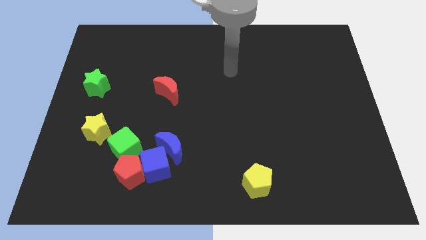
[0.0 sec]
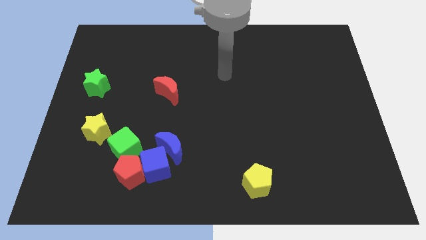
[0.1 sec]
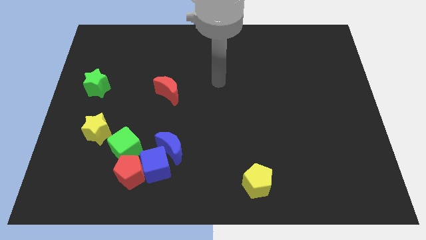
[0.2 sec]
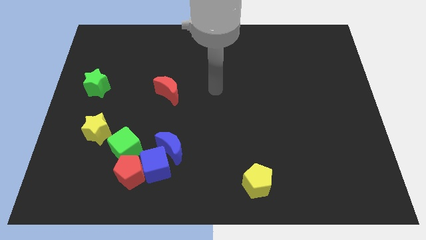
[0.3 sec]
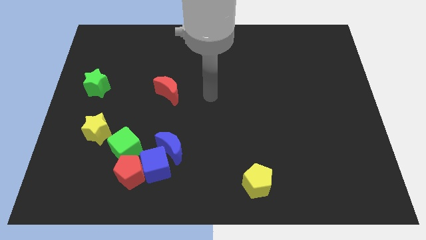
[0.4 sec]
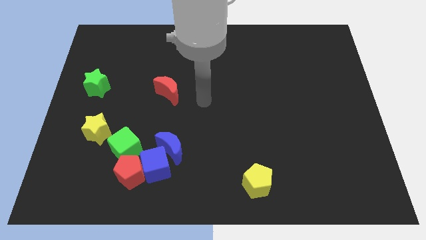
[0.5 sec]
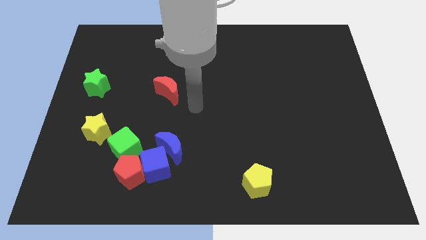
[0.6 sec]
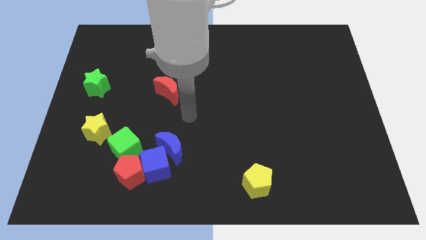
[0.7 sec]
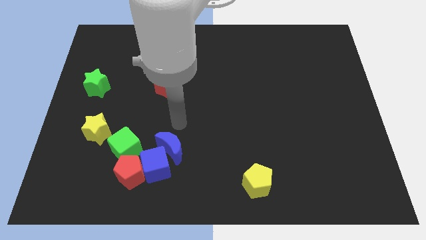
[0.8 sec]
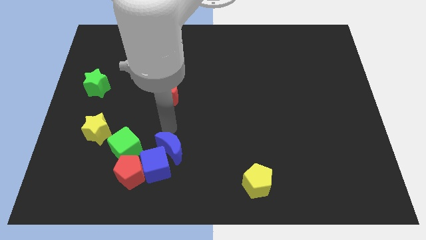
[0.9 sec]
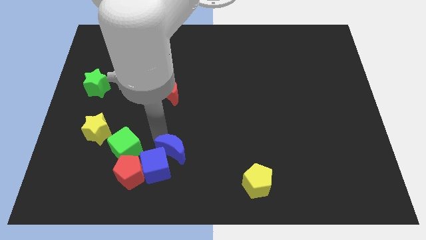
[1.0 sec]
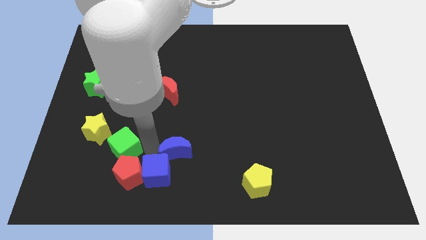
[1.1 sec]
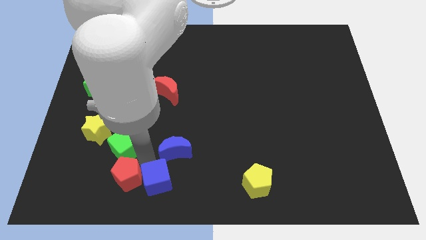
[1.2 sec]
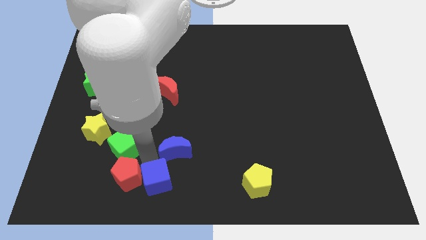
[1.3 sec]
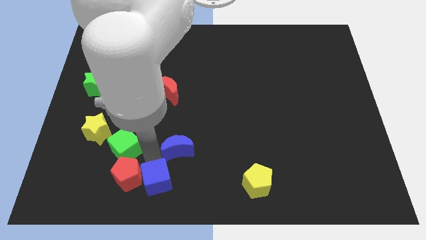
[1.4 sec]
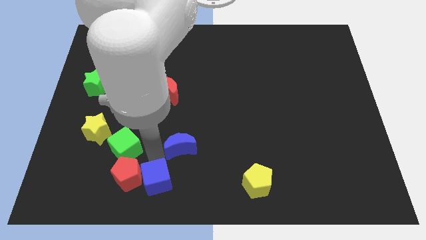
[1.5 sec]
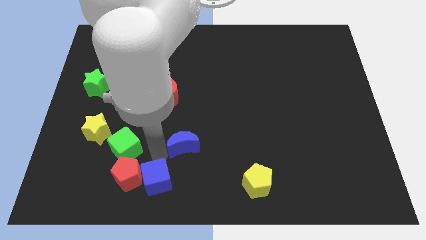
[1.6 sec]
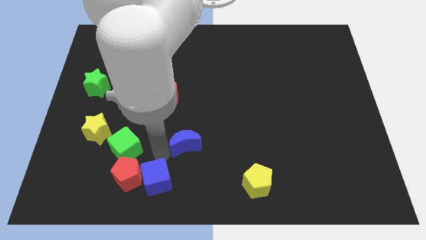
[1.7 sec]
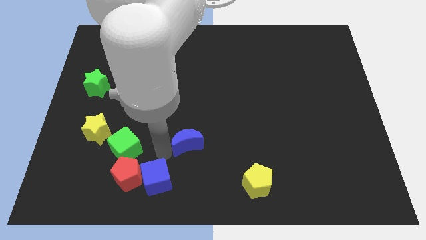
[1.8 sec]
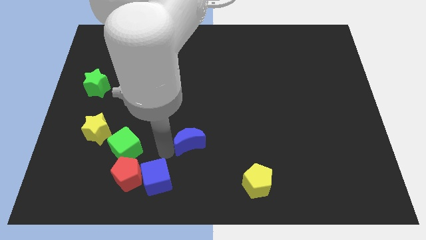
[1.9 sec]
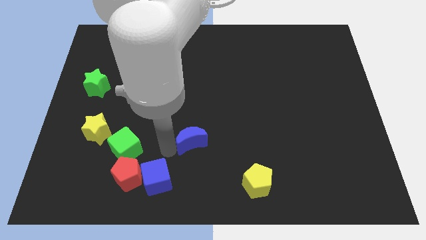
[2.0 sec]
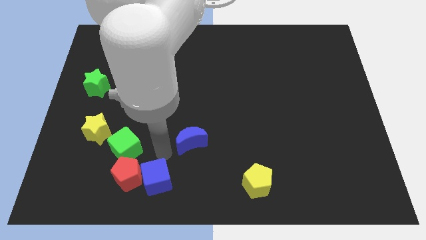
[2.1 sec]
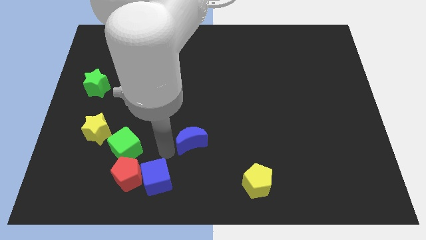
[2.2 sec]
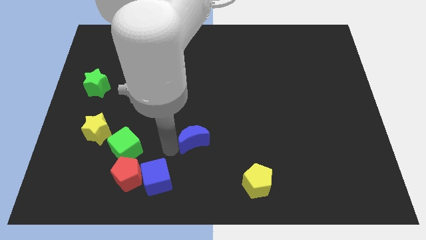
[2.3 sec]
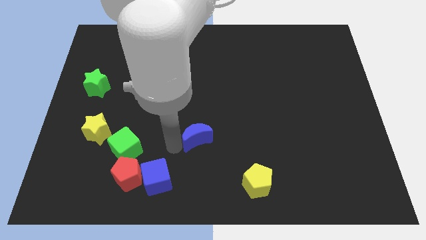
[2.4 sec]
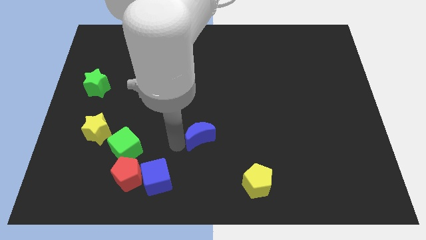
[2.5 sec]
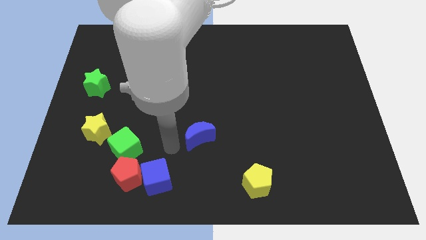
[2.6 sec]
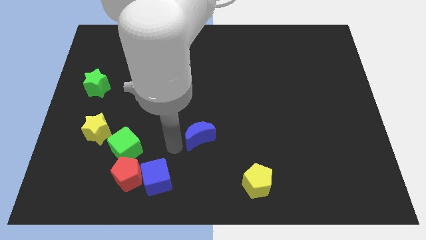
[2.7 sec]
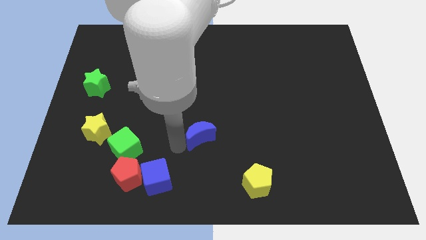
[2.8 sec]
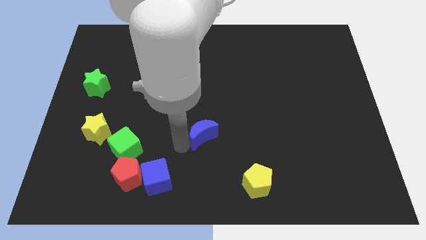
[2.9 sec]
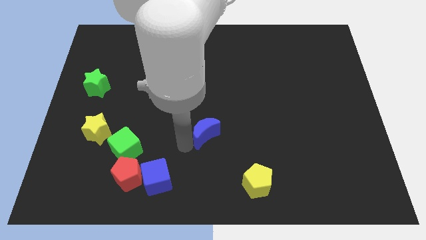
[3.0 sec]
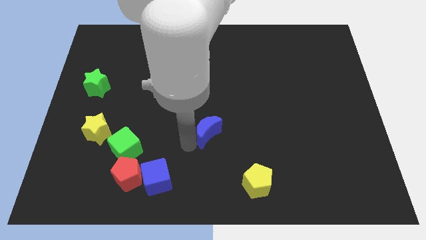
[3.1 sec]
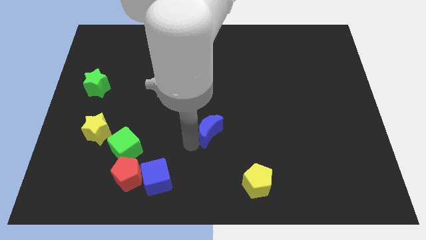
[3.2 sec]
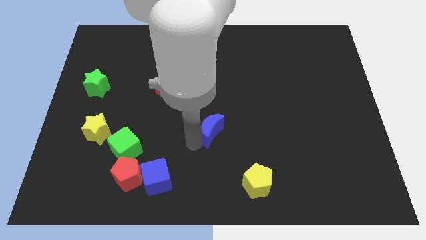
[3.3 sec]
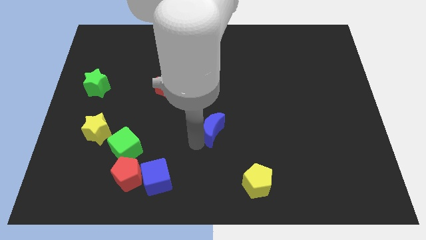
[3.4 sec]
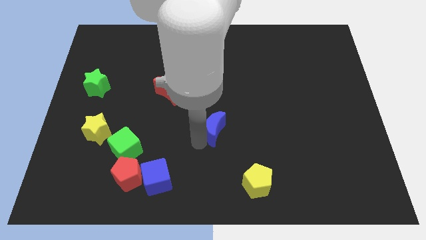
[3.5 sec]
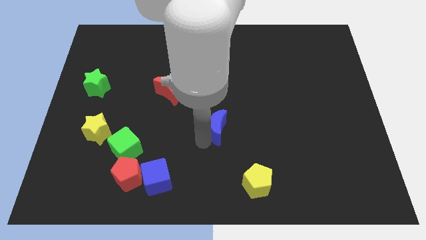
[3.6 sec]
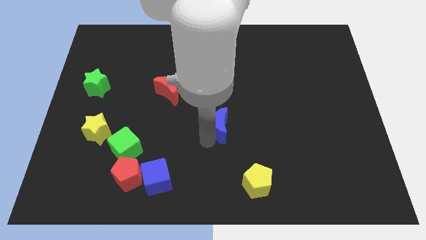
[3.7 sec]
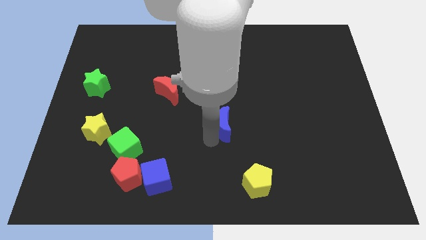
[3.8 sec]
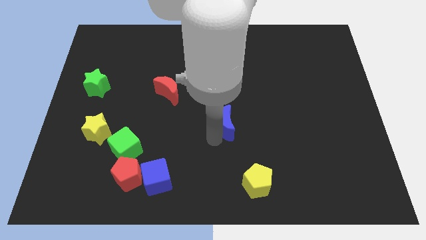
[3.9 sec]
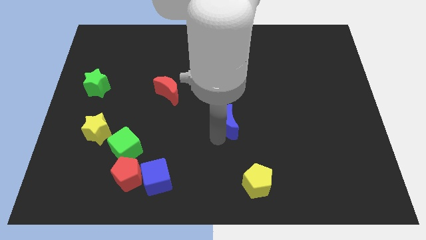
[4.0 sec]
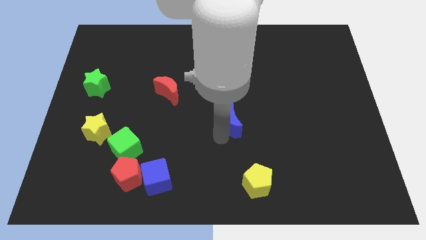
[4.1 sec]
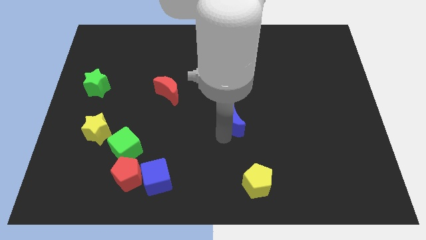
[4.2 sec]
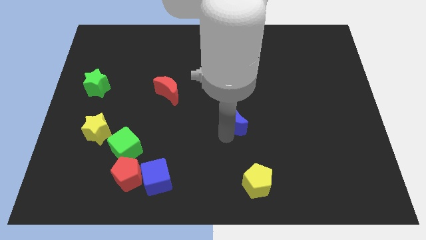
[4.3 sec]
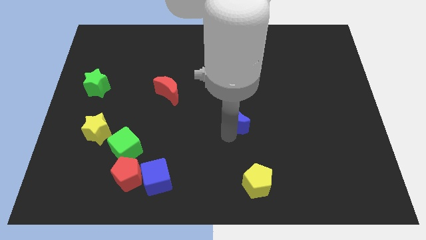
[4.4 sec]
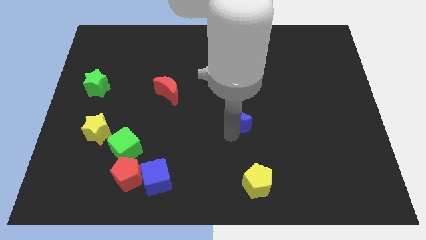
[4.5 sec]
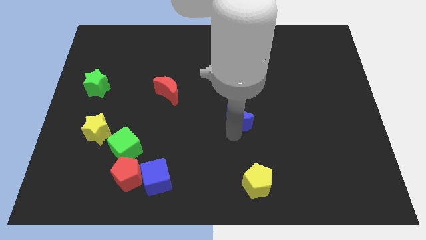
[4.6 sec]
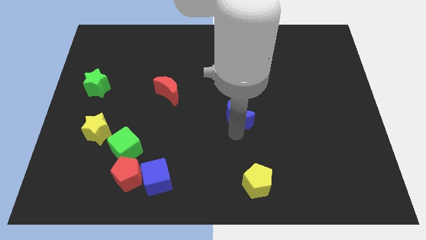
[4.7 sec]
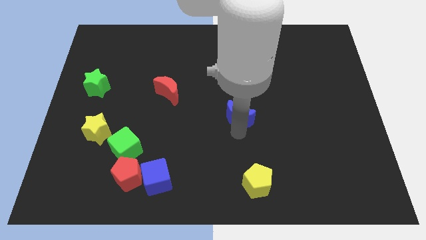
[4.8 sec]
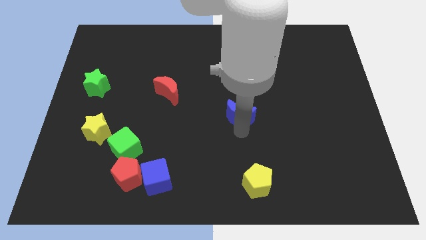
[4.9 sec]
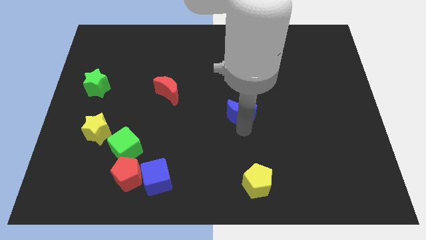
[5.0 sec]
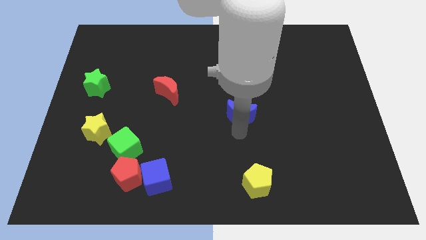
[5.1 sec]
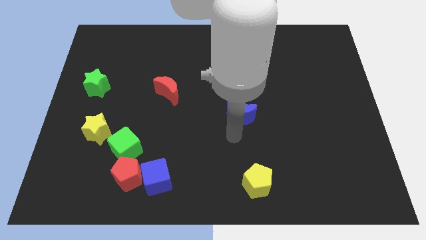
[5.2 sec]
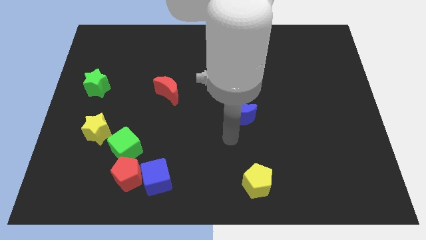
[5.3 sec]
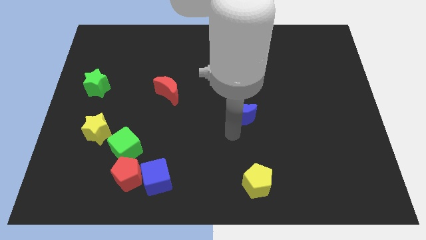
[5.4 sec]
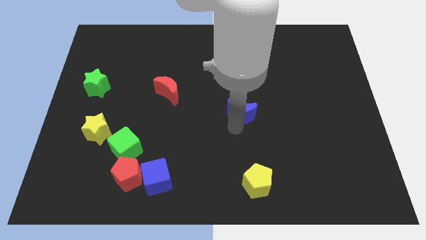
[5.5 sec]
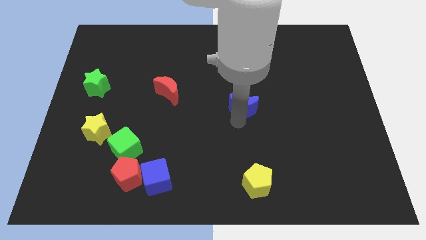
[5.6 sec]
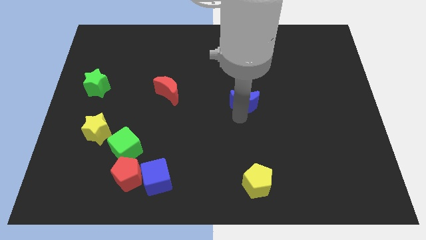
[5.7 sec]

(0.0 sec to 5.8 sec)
push the blue moon diagonally up and right

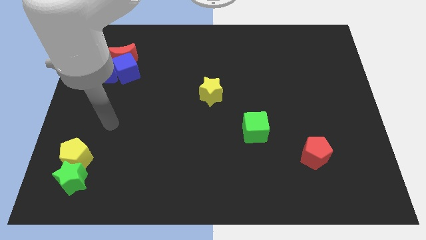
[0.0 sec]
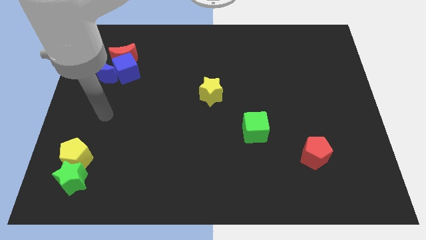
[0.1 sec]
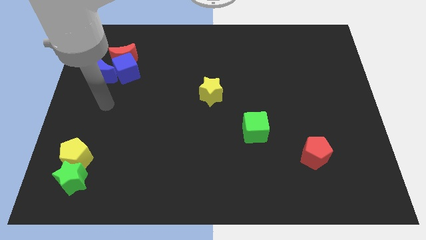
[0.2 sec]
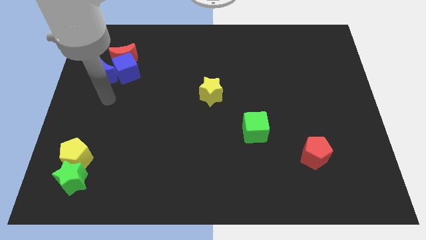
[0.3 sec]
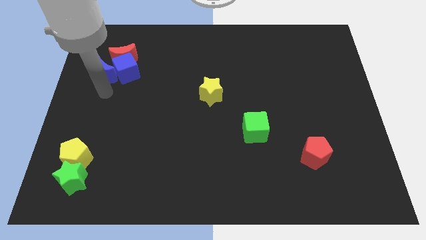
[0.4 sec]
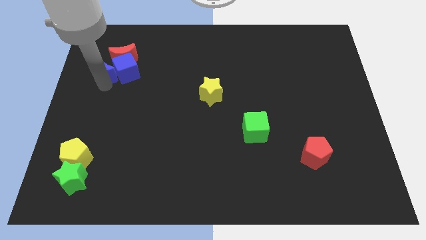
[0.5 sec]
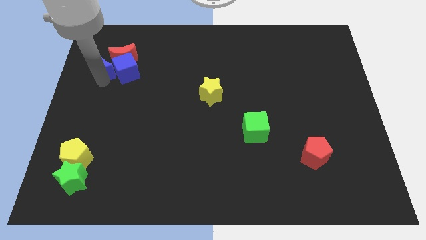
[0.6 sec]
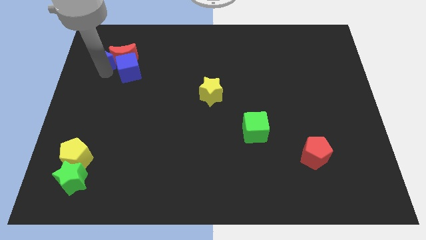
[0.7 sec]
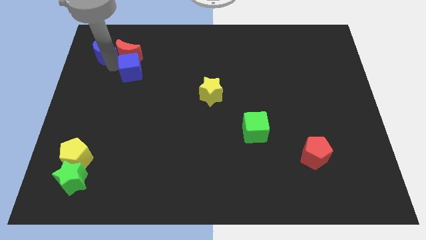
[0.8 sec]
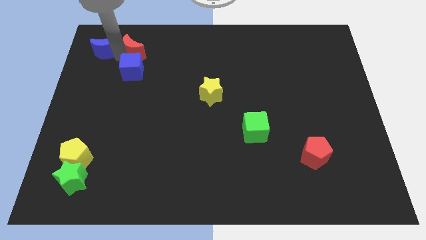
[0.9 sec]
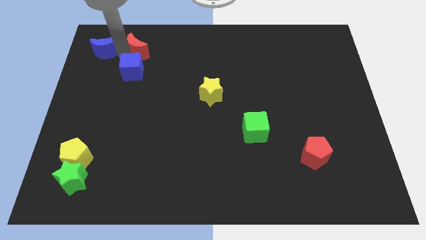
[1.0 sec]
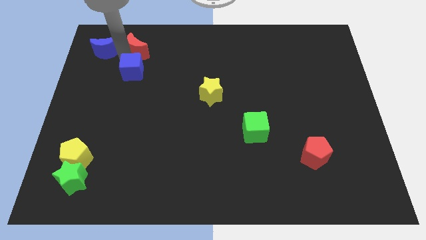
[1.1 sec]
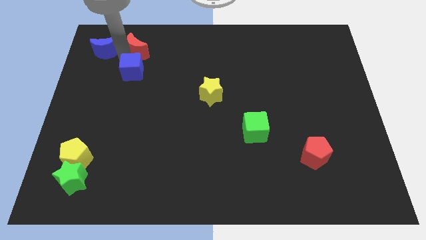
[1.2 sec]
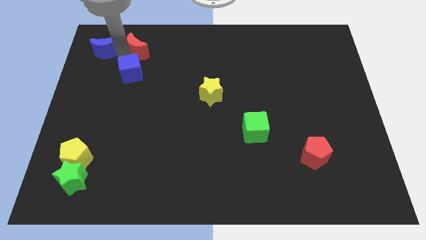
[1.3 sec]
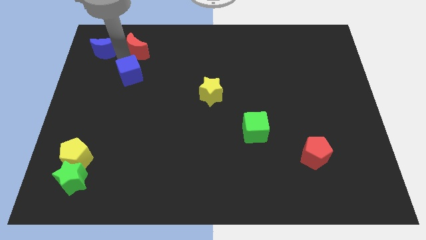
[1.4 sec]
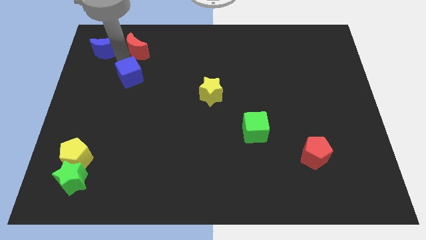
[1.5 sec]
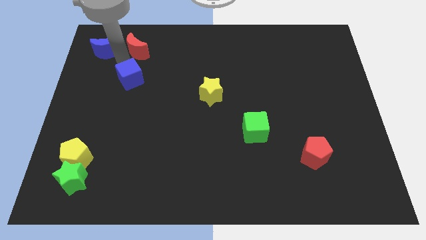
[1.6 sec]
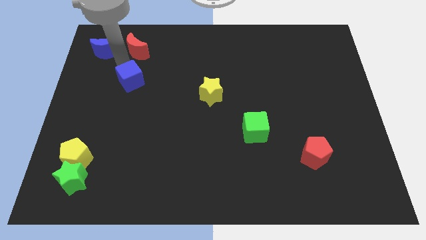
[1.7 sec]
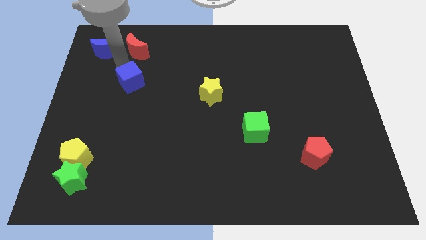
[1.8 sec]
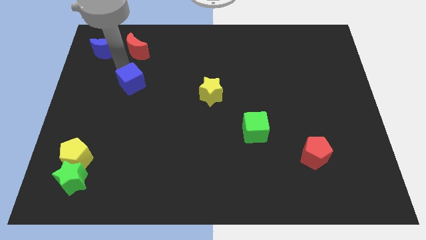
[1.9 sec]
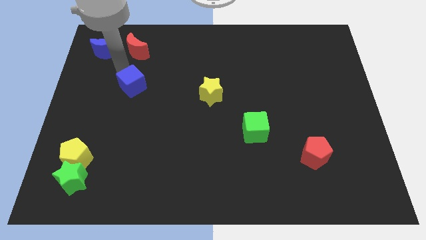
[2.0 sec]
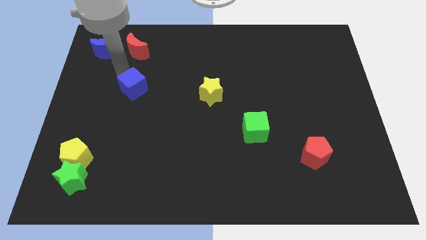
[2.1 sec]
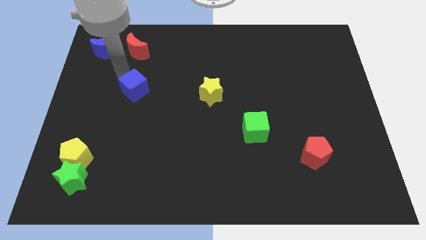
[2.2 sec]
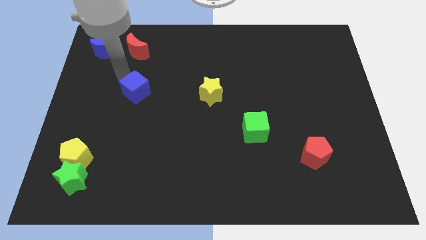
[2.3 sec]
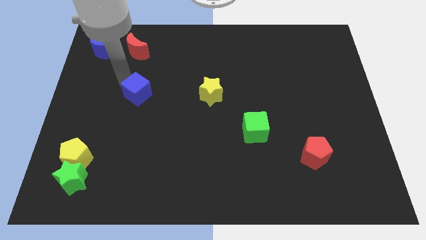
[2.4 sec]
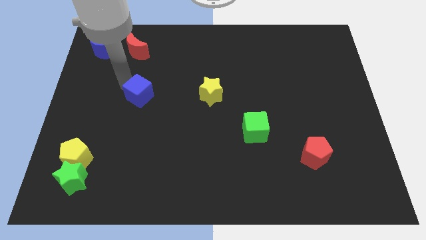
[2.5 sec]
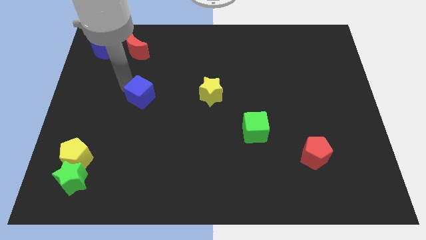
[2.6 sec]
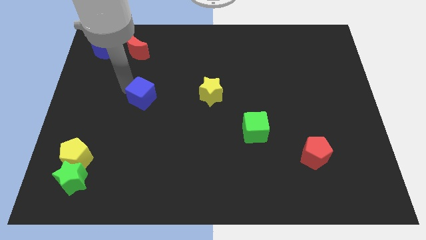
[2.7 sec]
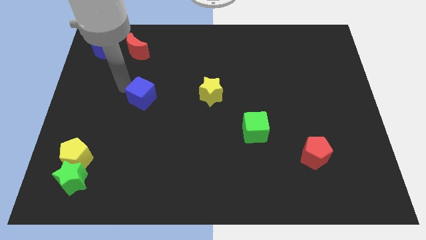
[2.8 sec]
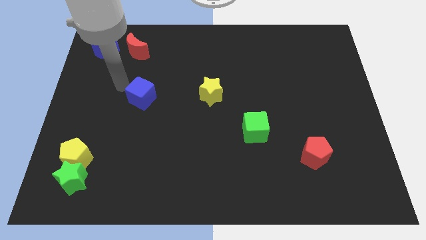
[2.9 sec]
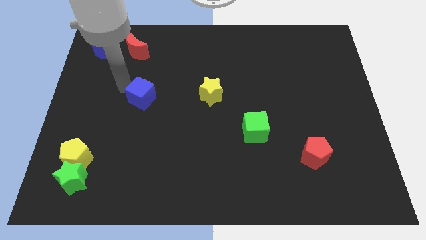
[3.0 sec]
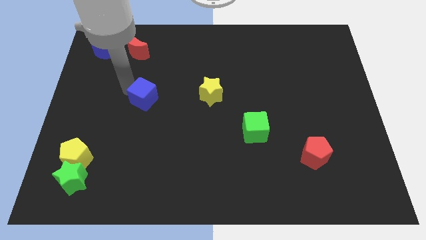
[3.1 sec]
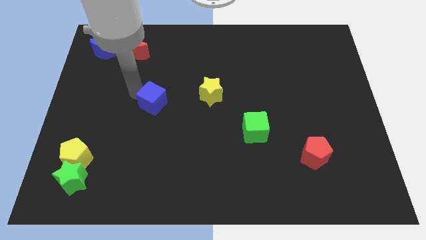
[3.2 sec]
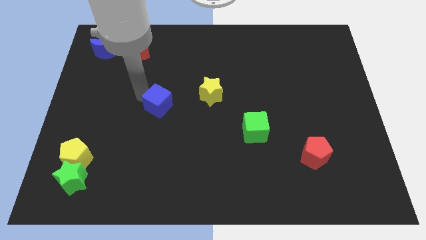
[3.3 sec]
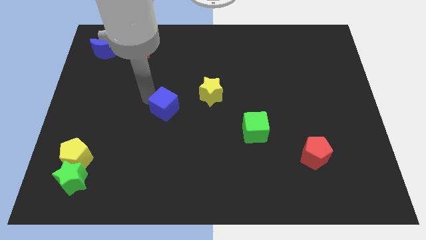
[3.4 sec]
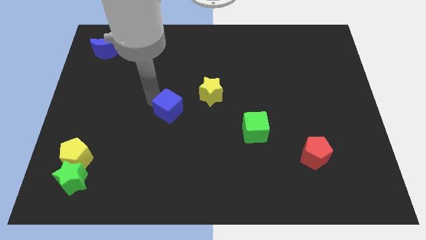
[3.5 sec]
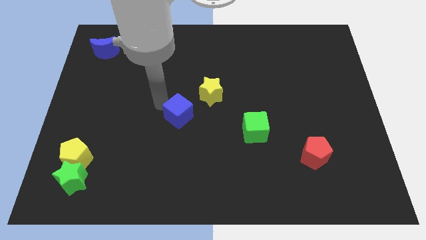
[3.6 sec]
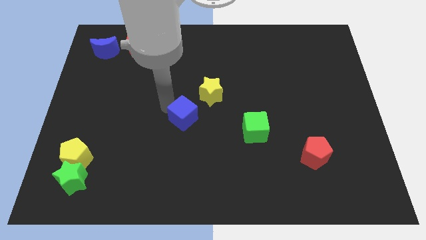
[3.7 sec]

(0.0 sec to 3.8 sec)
slide the blue cube down and to the right
